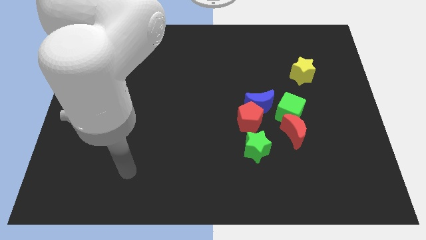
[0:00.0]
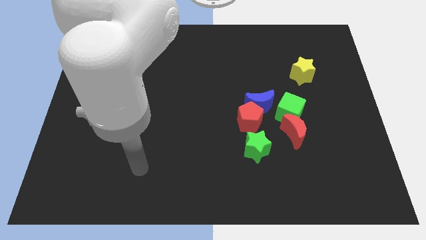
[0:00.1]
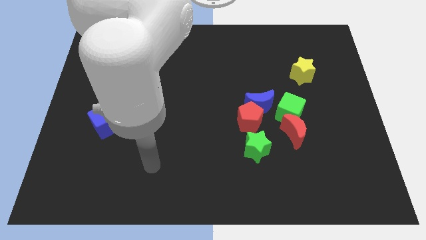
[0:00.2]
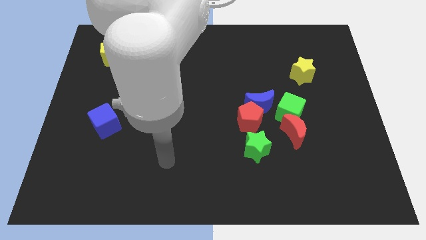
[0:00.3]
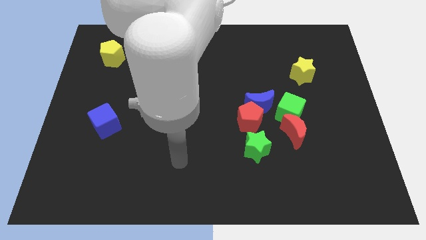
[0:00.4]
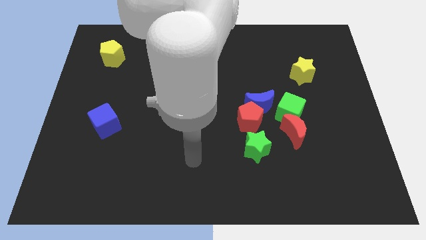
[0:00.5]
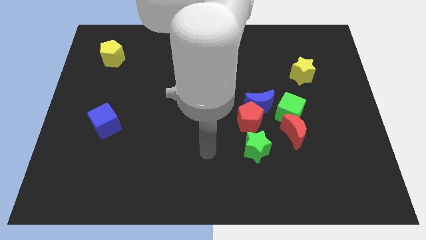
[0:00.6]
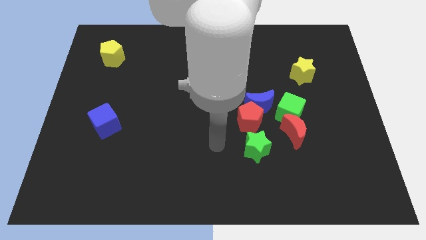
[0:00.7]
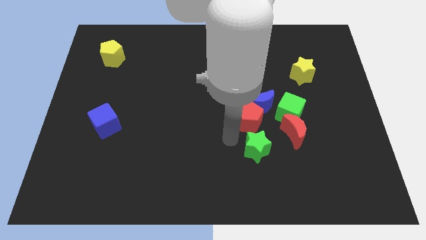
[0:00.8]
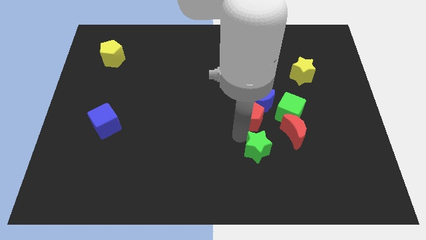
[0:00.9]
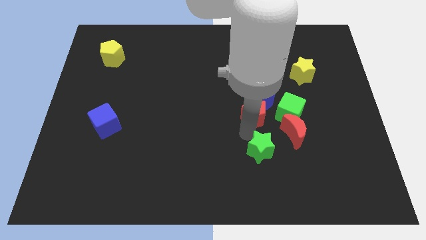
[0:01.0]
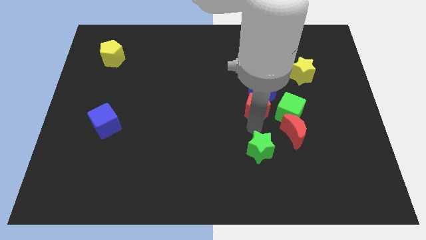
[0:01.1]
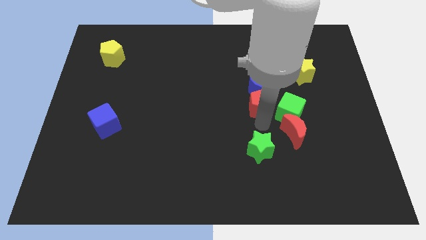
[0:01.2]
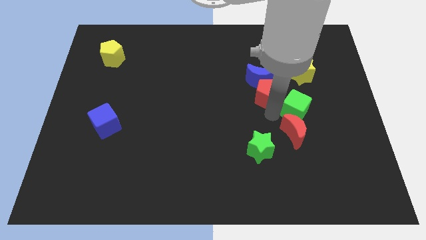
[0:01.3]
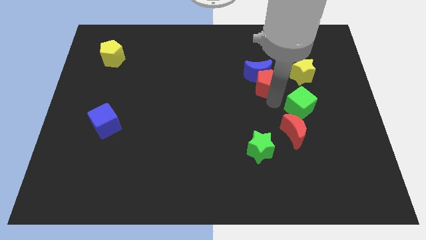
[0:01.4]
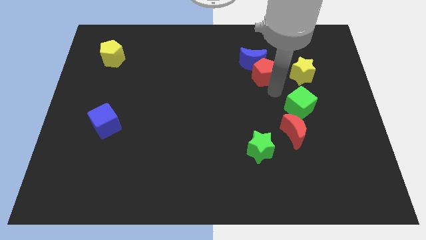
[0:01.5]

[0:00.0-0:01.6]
separate the blue moon from the red pentagon and green cube

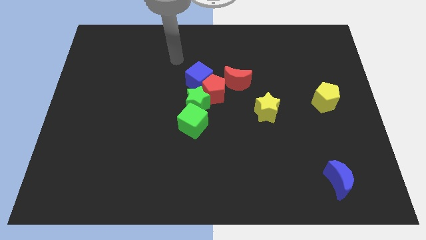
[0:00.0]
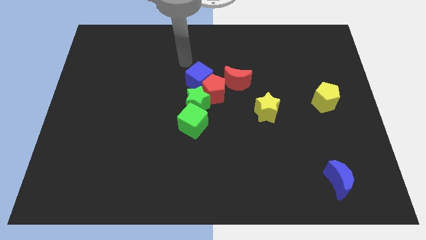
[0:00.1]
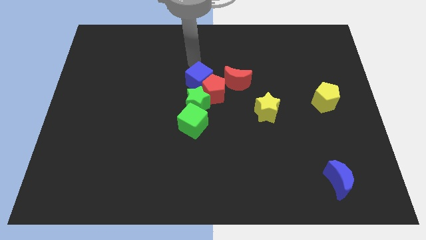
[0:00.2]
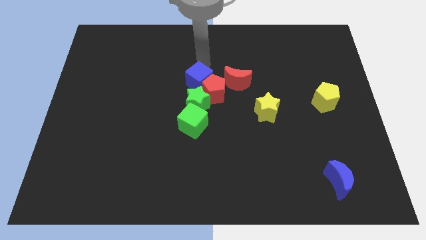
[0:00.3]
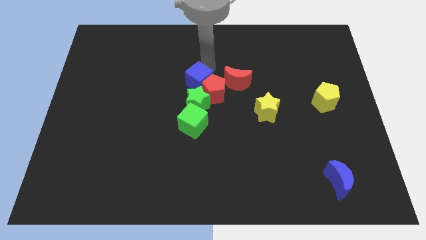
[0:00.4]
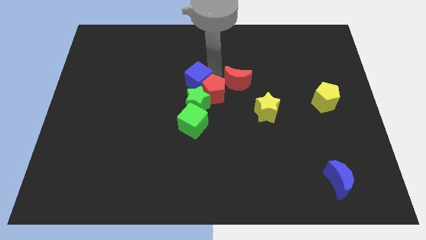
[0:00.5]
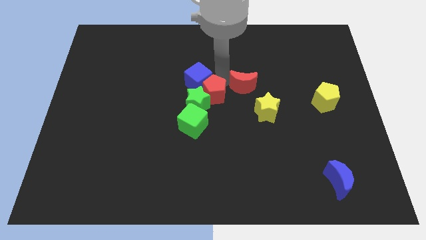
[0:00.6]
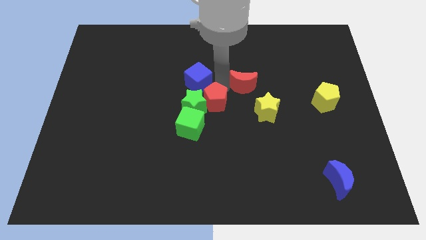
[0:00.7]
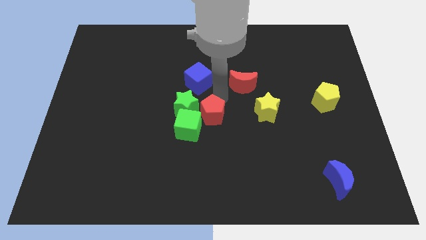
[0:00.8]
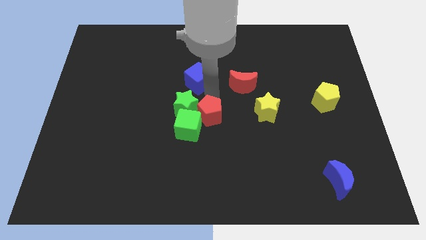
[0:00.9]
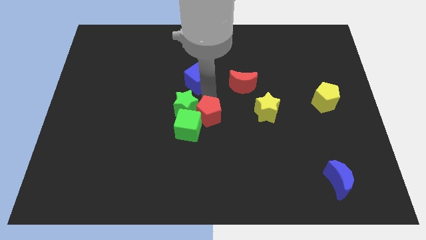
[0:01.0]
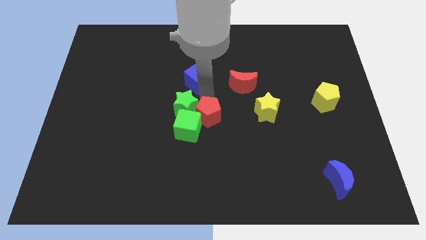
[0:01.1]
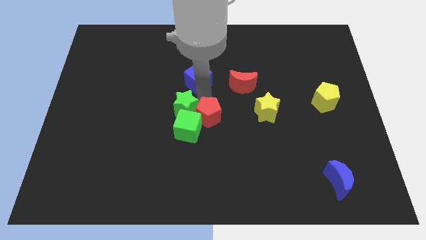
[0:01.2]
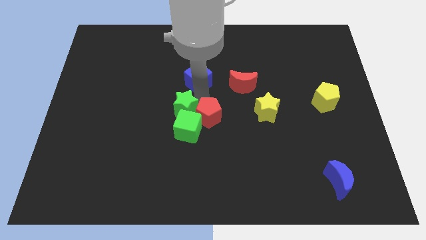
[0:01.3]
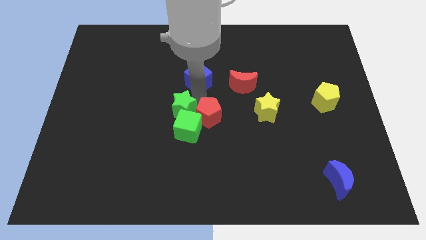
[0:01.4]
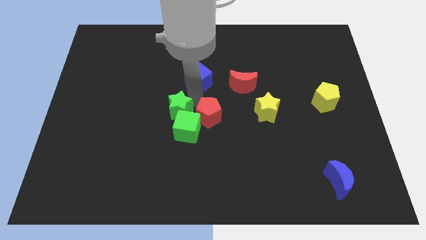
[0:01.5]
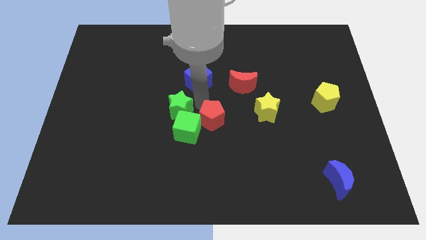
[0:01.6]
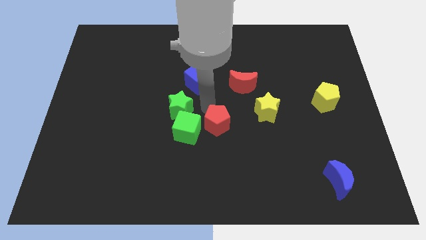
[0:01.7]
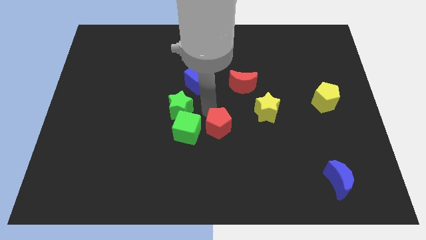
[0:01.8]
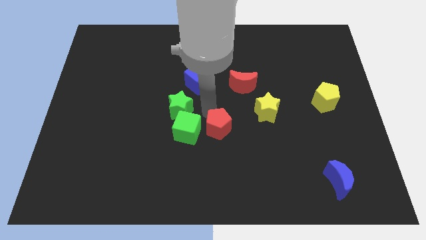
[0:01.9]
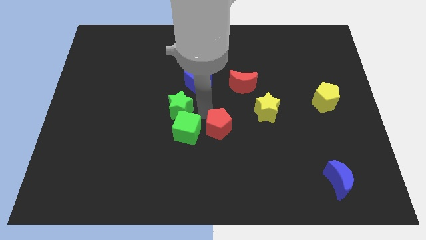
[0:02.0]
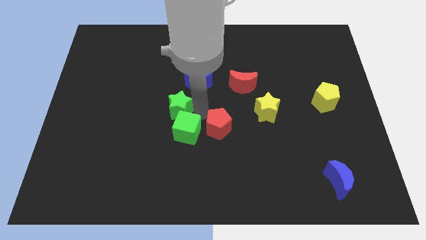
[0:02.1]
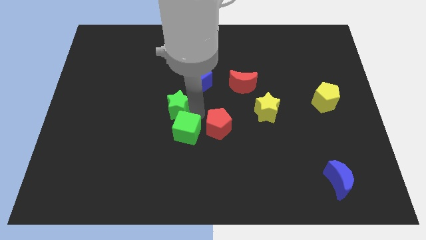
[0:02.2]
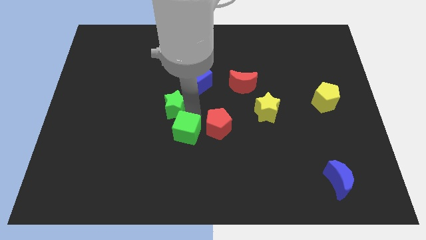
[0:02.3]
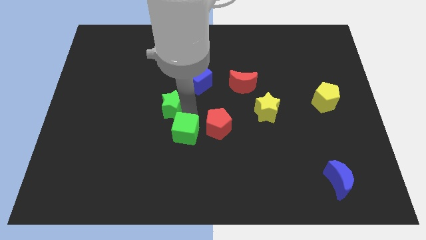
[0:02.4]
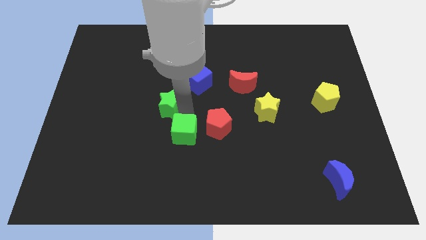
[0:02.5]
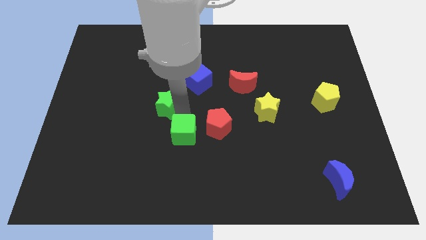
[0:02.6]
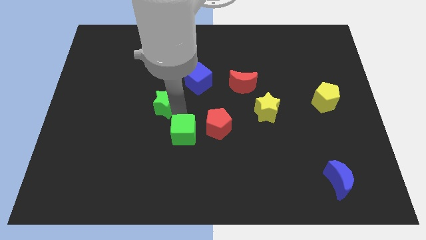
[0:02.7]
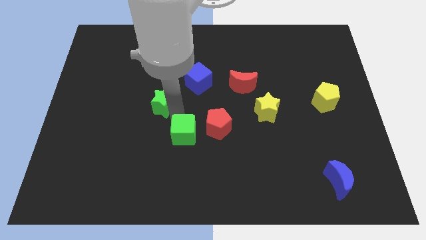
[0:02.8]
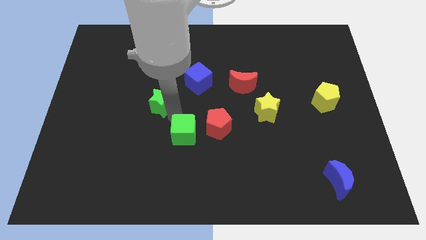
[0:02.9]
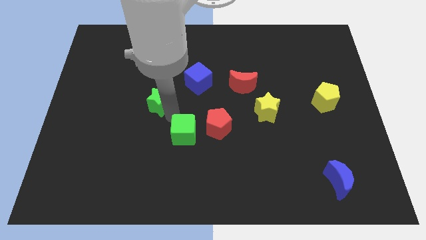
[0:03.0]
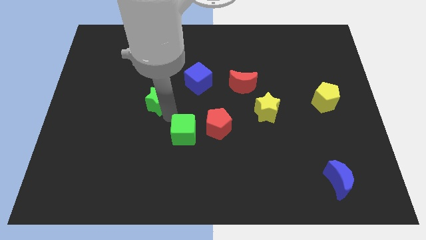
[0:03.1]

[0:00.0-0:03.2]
move the green star away from the group

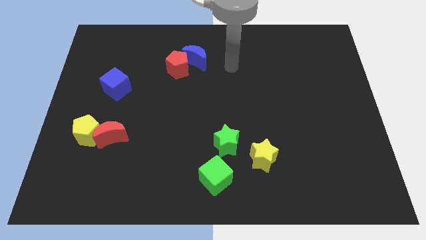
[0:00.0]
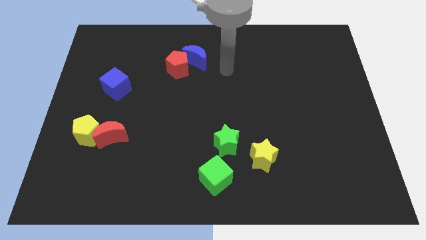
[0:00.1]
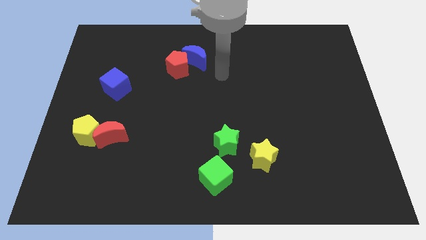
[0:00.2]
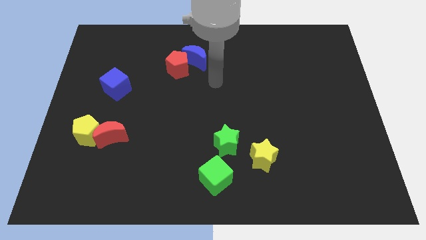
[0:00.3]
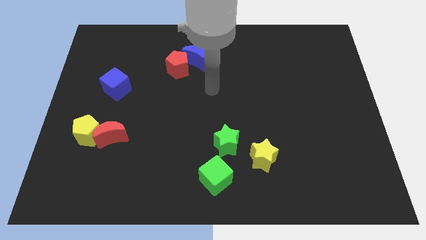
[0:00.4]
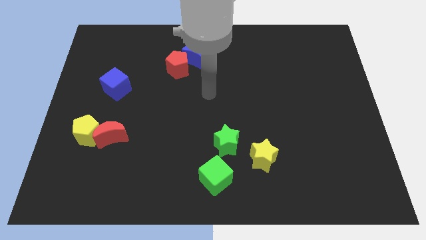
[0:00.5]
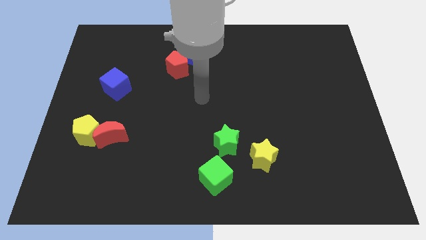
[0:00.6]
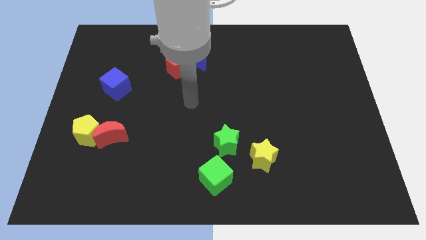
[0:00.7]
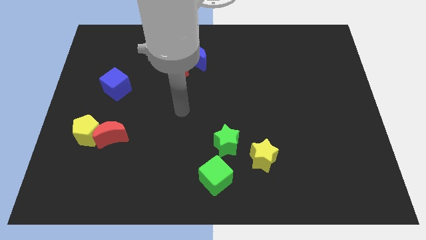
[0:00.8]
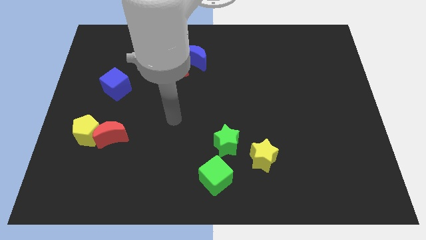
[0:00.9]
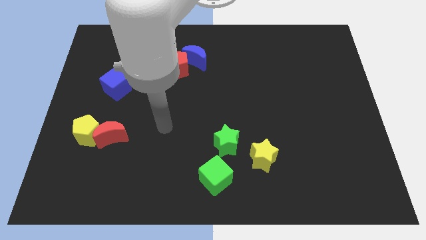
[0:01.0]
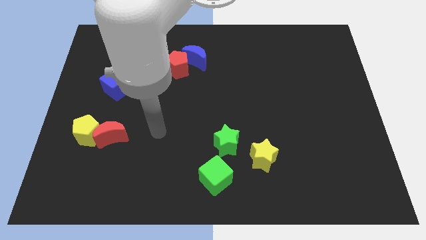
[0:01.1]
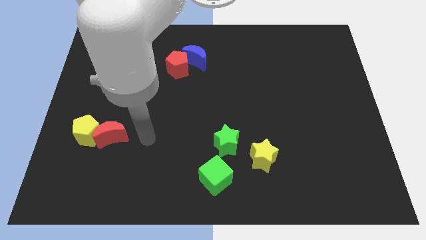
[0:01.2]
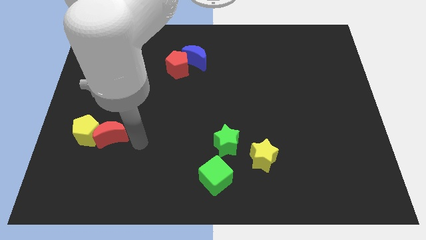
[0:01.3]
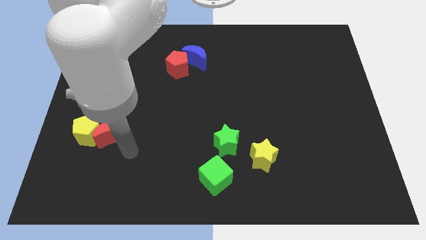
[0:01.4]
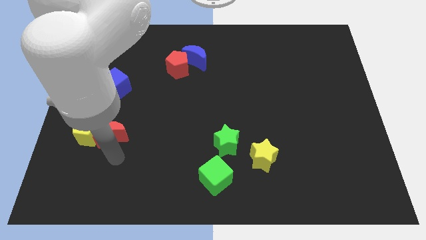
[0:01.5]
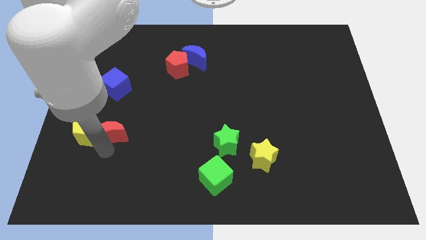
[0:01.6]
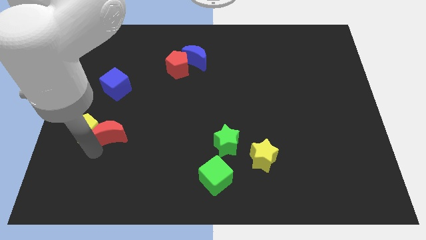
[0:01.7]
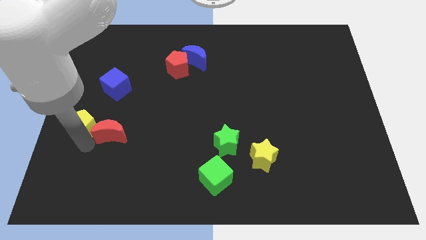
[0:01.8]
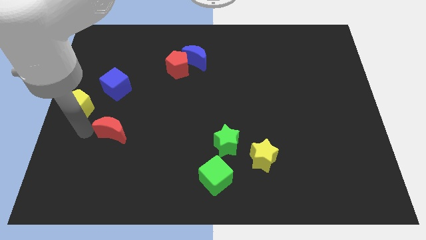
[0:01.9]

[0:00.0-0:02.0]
pull the red moon apart from the yellow pentagon

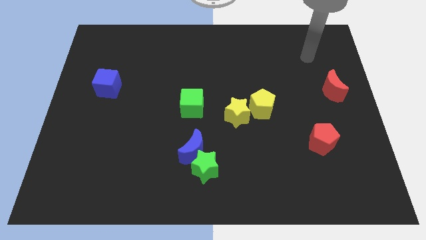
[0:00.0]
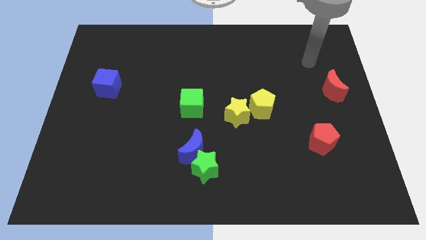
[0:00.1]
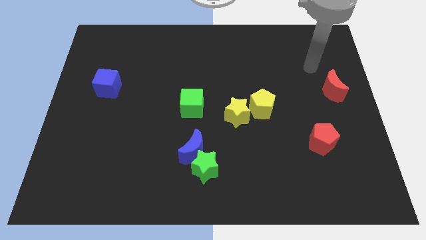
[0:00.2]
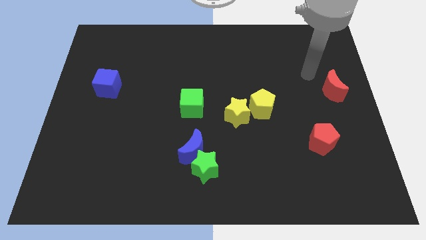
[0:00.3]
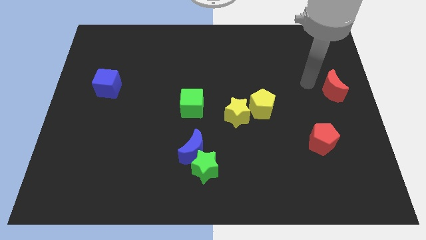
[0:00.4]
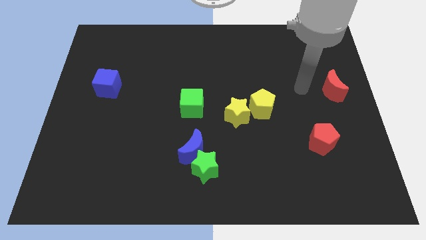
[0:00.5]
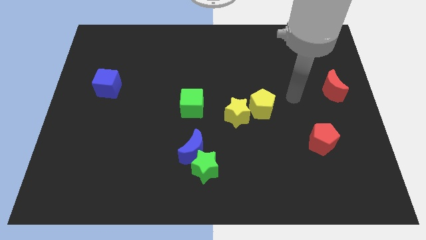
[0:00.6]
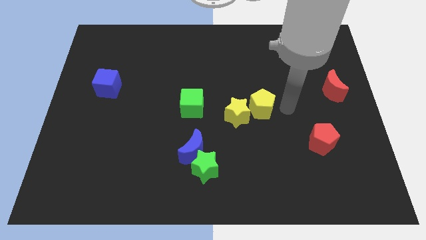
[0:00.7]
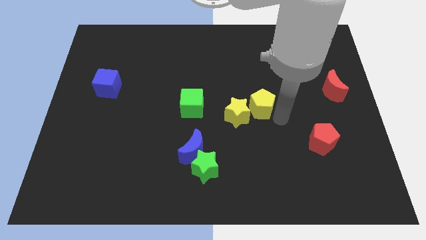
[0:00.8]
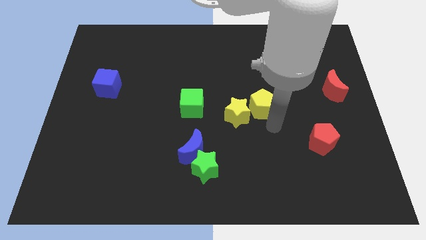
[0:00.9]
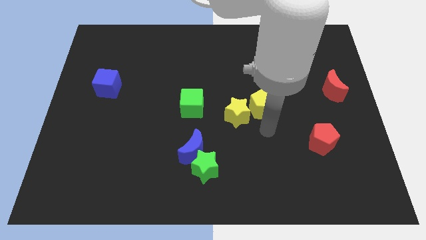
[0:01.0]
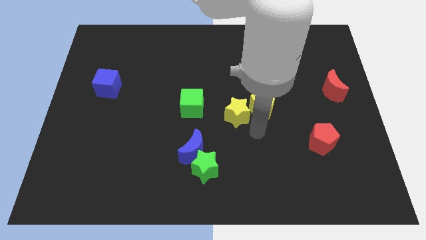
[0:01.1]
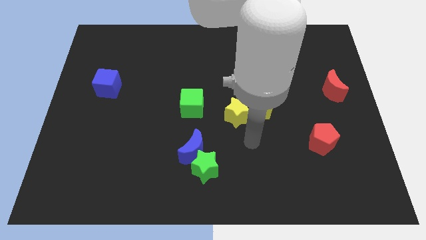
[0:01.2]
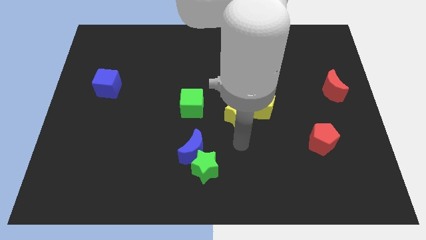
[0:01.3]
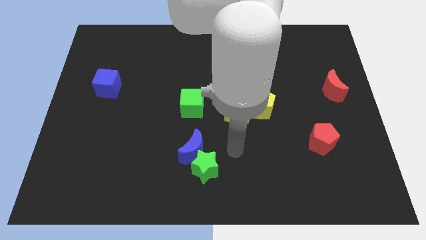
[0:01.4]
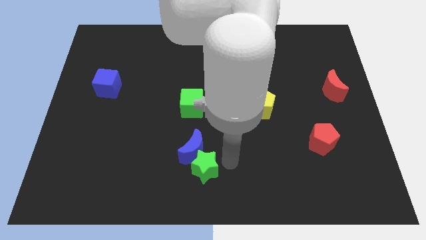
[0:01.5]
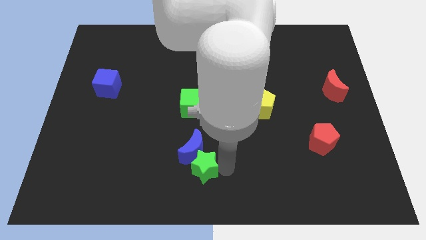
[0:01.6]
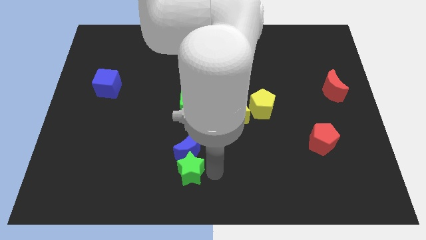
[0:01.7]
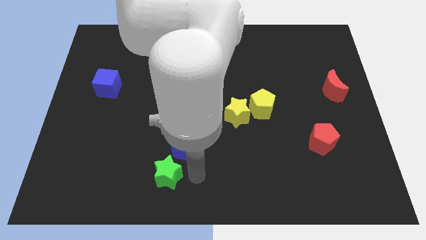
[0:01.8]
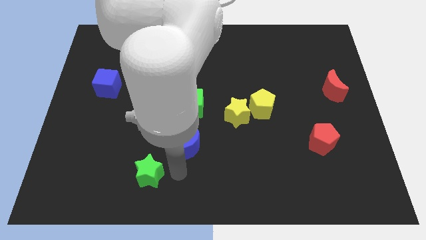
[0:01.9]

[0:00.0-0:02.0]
separate the blue moon from the green star

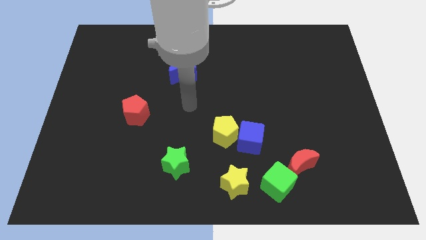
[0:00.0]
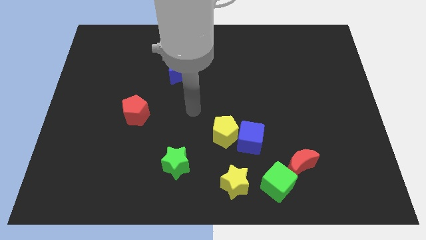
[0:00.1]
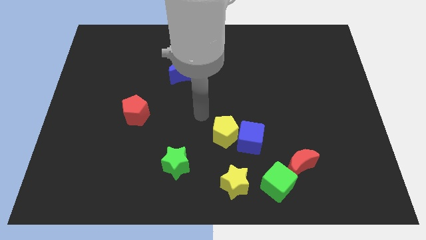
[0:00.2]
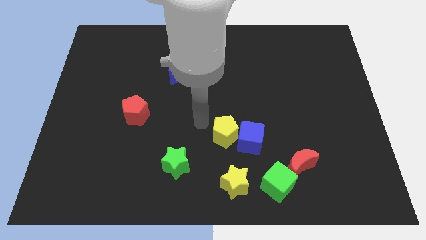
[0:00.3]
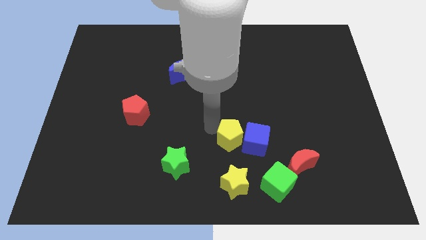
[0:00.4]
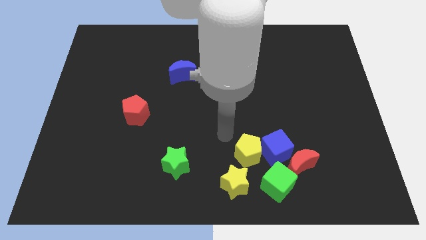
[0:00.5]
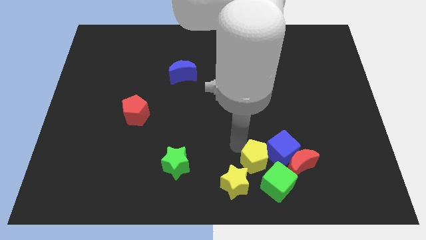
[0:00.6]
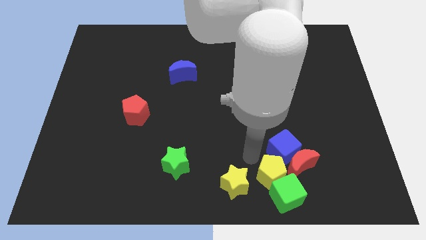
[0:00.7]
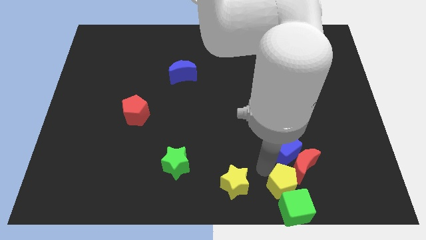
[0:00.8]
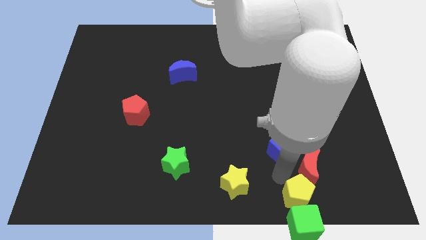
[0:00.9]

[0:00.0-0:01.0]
separate the blue cube from the yellow pentagon
